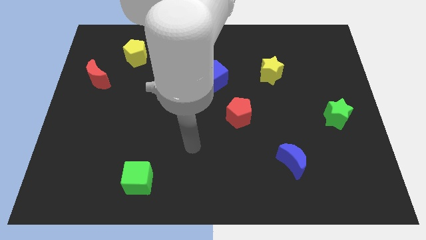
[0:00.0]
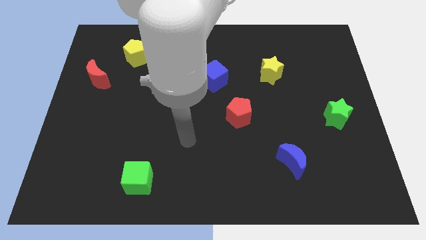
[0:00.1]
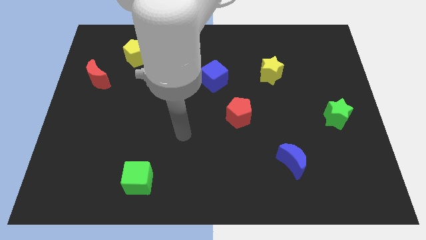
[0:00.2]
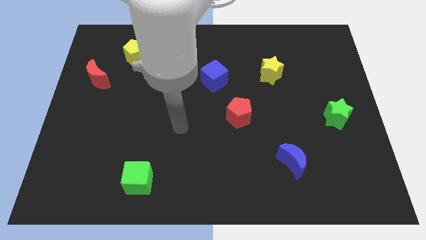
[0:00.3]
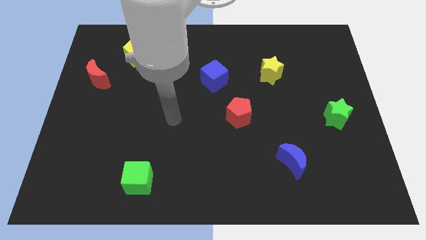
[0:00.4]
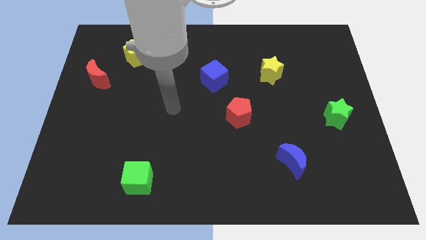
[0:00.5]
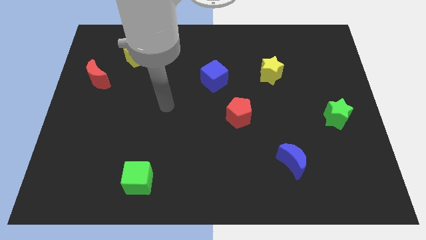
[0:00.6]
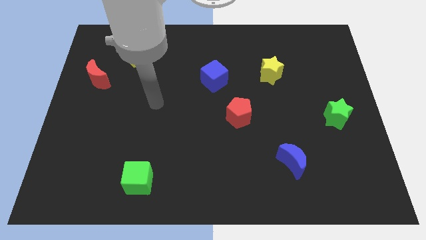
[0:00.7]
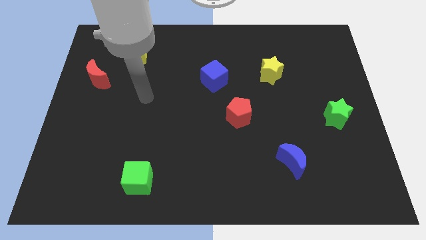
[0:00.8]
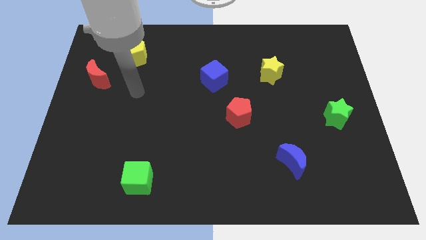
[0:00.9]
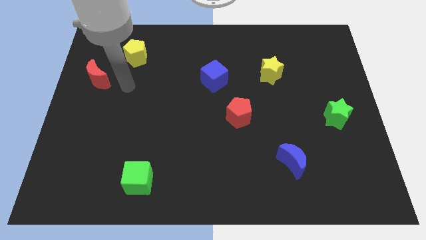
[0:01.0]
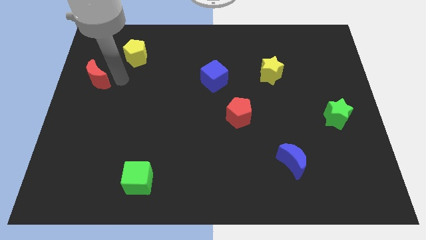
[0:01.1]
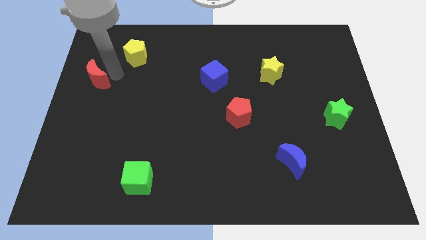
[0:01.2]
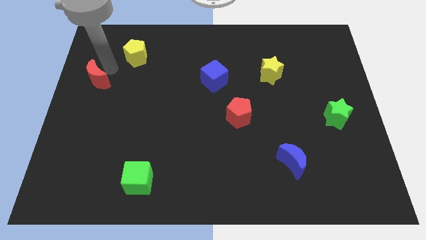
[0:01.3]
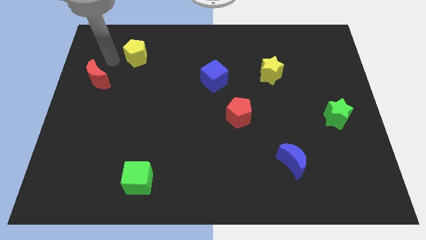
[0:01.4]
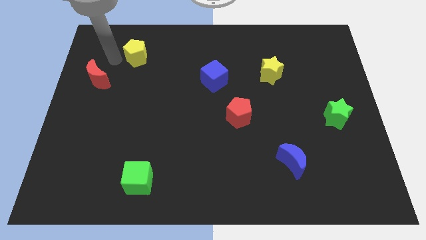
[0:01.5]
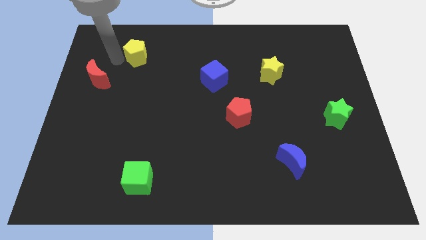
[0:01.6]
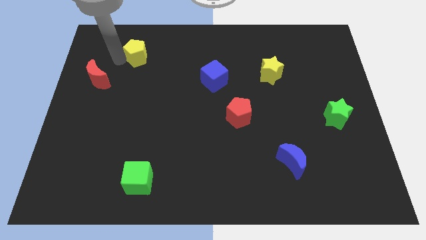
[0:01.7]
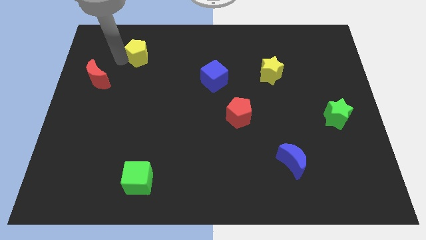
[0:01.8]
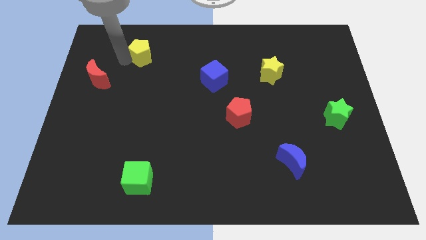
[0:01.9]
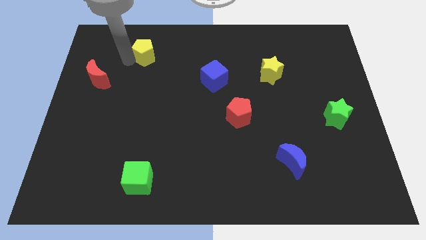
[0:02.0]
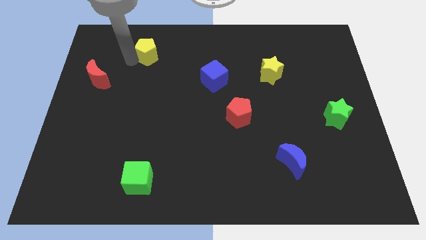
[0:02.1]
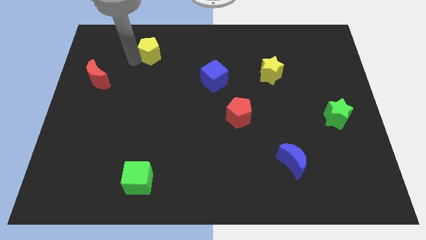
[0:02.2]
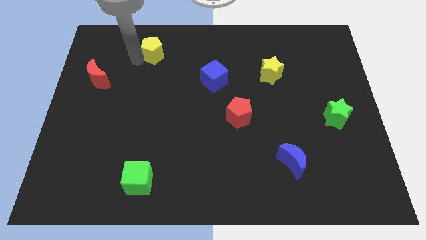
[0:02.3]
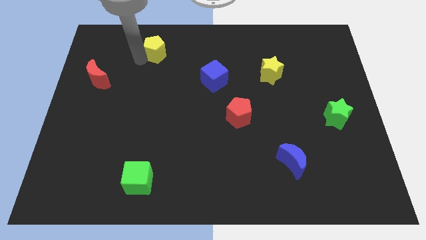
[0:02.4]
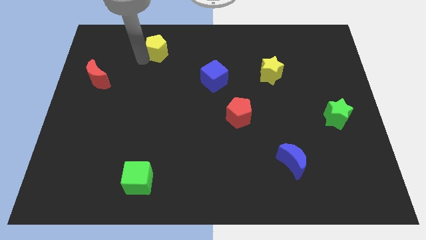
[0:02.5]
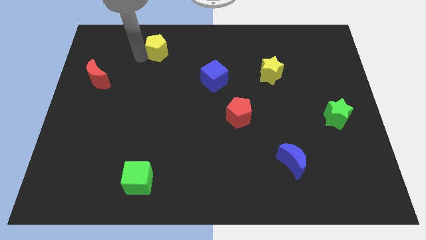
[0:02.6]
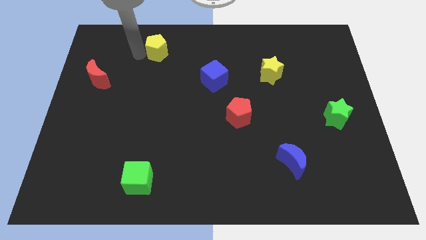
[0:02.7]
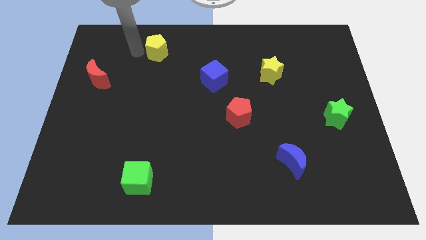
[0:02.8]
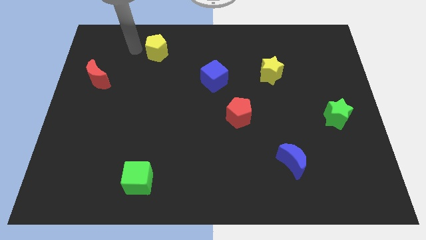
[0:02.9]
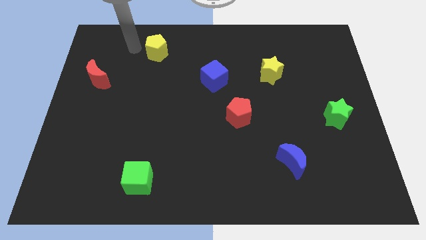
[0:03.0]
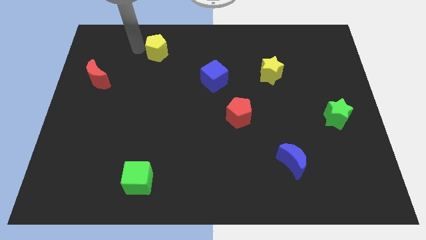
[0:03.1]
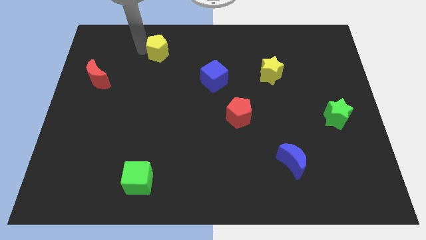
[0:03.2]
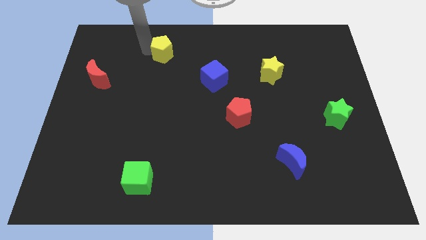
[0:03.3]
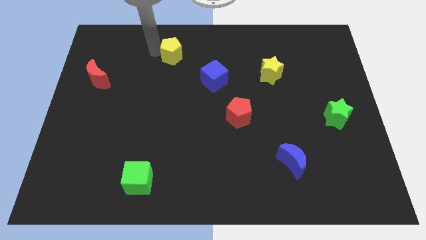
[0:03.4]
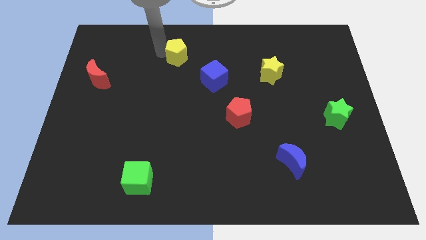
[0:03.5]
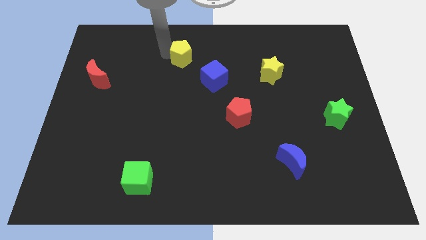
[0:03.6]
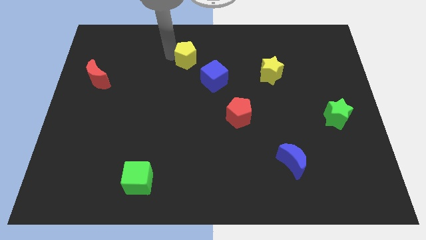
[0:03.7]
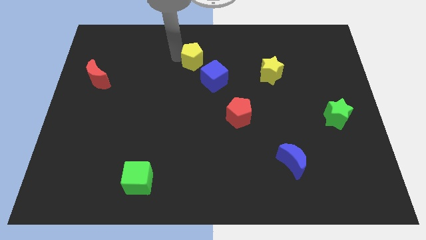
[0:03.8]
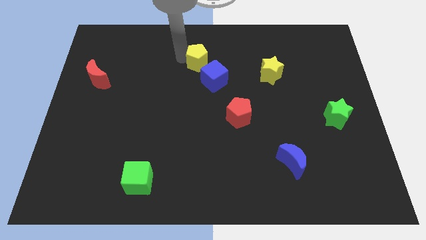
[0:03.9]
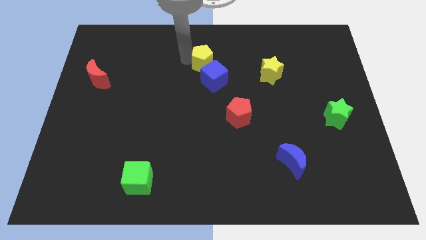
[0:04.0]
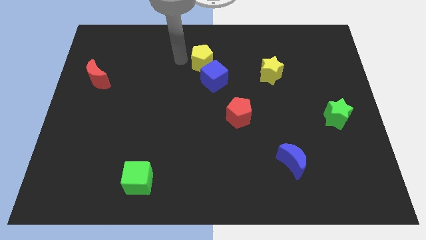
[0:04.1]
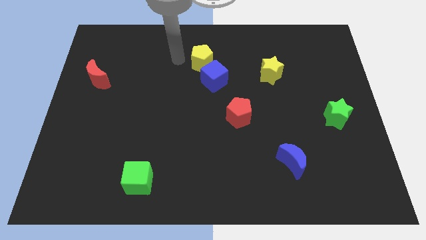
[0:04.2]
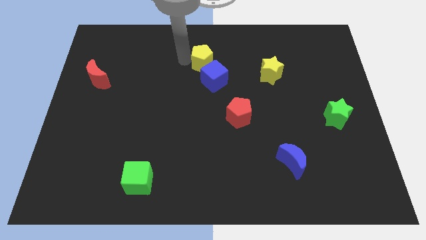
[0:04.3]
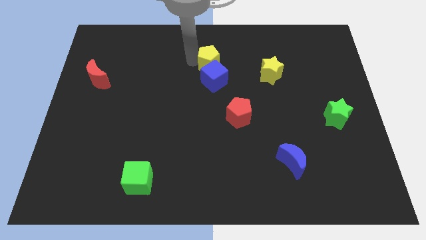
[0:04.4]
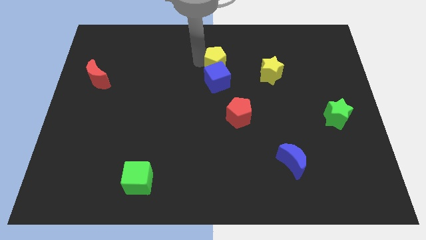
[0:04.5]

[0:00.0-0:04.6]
slide the yellow pentagon to the top right of the blue cube

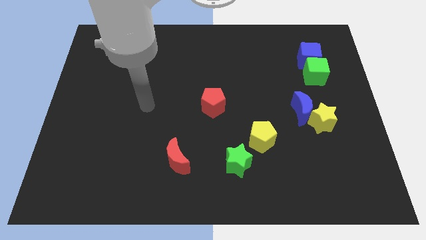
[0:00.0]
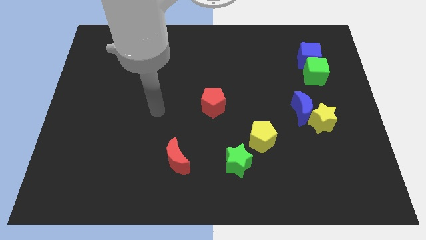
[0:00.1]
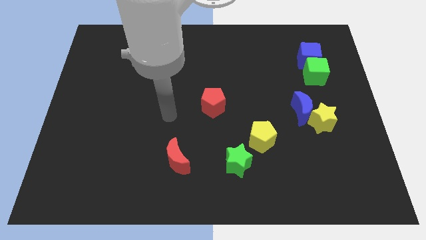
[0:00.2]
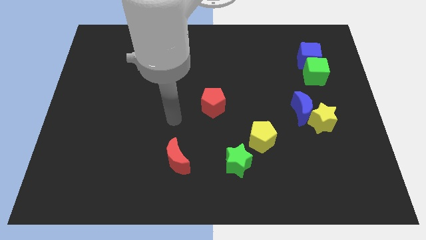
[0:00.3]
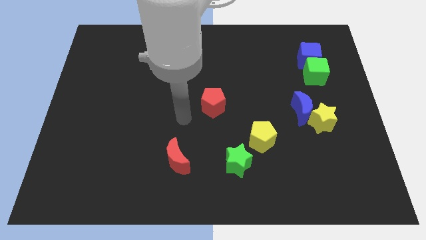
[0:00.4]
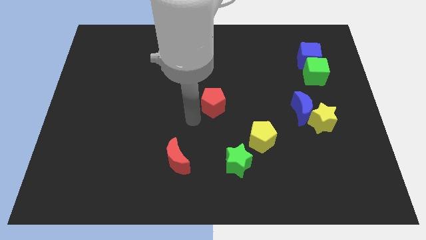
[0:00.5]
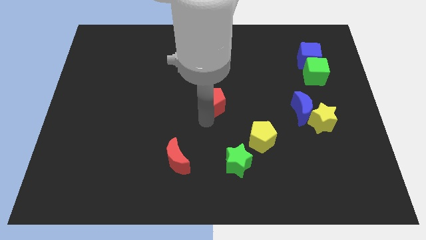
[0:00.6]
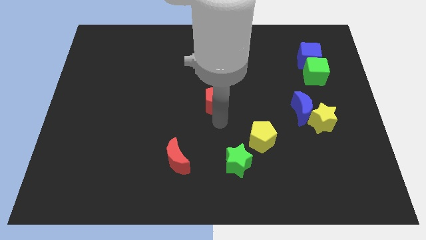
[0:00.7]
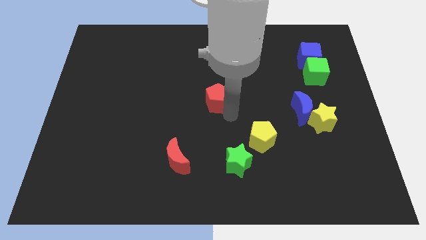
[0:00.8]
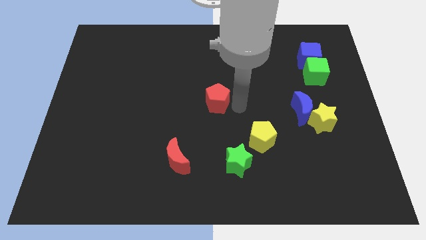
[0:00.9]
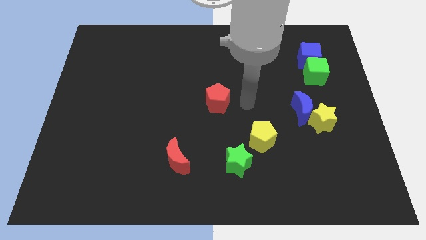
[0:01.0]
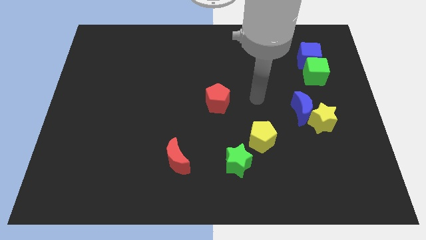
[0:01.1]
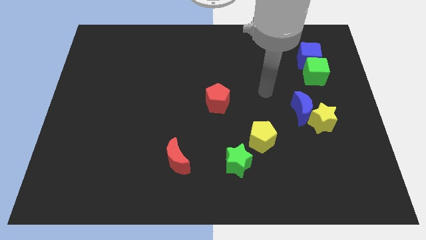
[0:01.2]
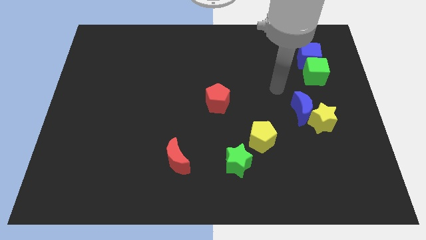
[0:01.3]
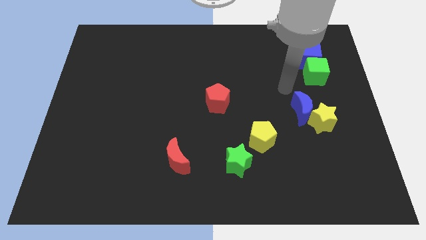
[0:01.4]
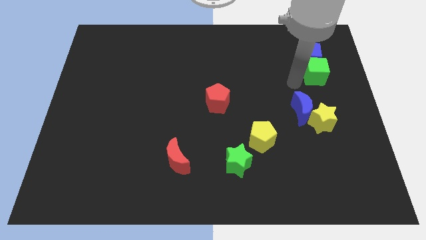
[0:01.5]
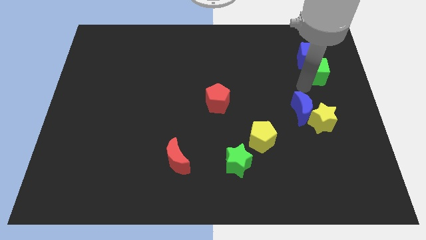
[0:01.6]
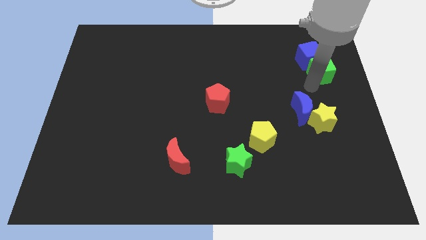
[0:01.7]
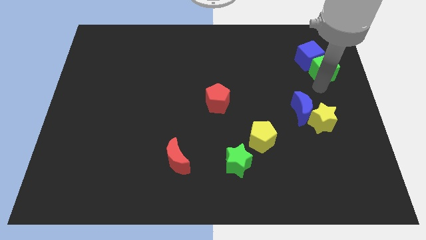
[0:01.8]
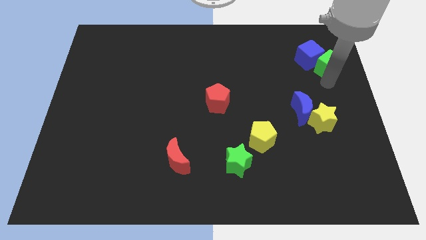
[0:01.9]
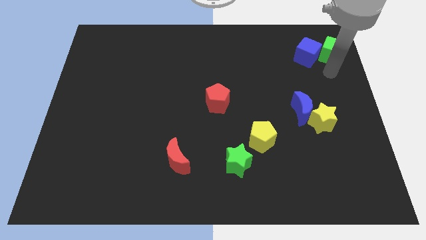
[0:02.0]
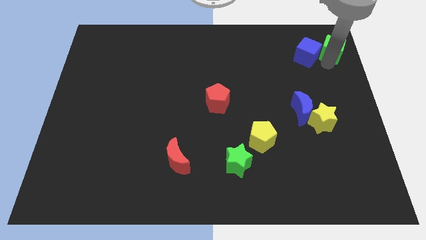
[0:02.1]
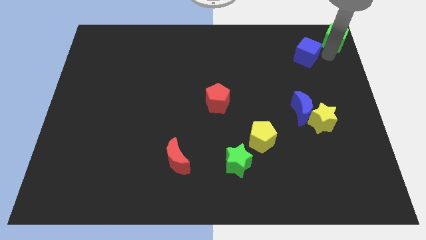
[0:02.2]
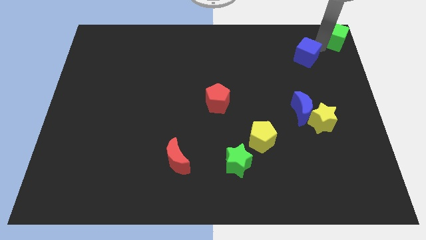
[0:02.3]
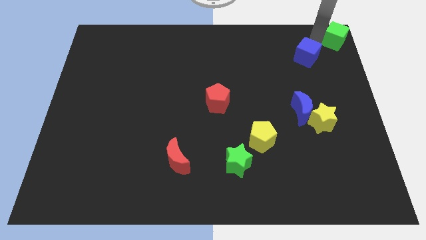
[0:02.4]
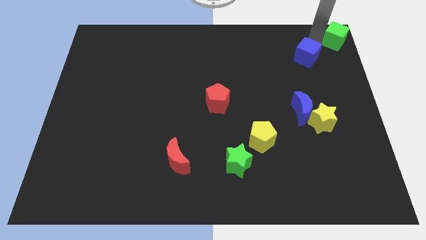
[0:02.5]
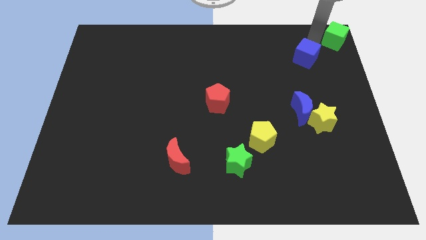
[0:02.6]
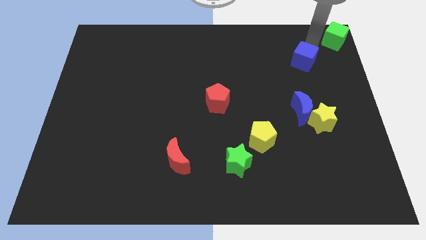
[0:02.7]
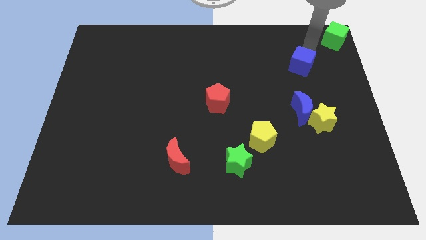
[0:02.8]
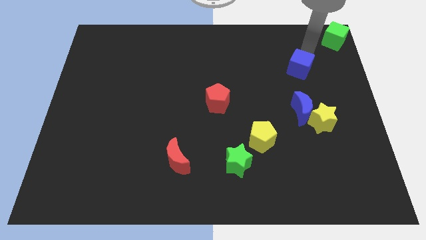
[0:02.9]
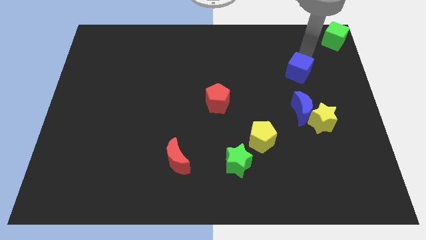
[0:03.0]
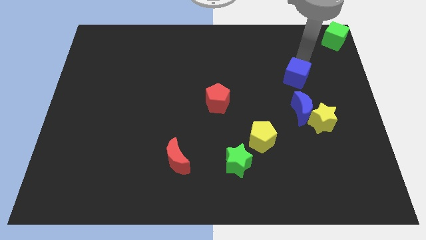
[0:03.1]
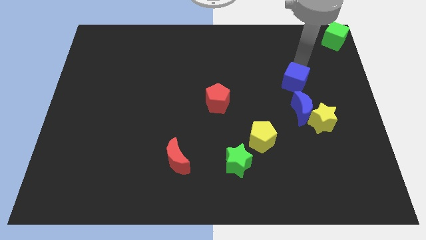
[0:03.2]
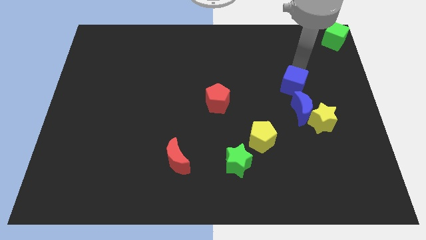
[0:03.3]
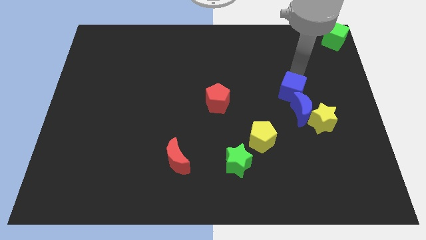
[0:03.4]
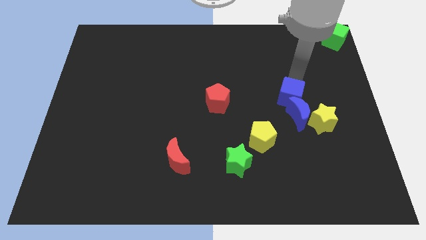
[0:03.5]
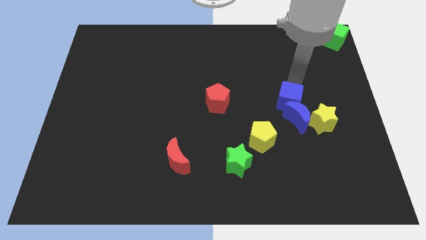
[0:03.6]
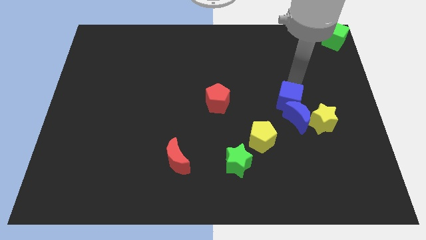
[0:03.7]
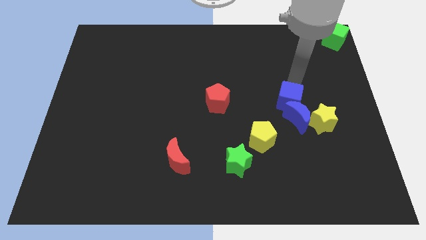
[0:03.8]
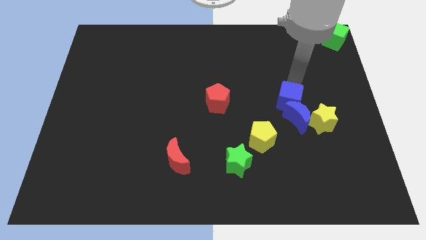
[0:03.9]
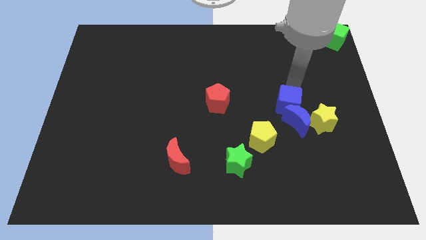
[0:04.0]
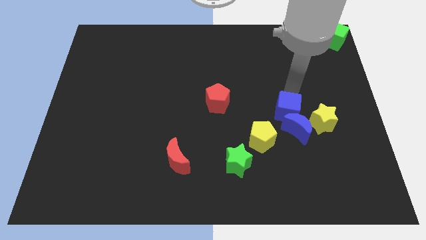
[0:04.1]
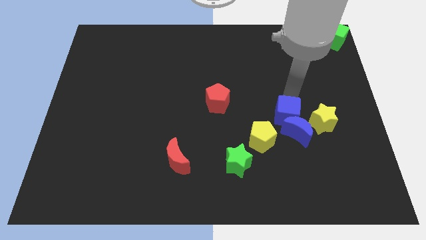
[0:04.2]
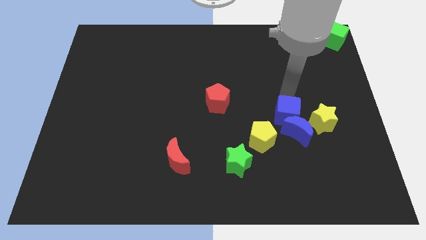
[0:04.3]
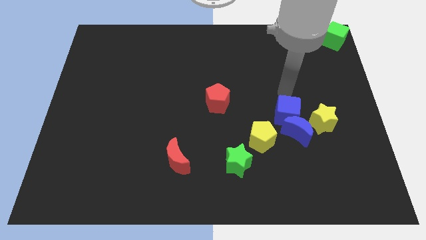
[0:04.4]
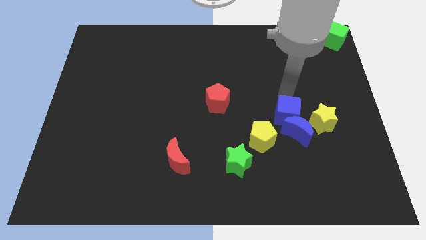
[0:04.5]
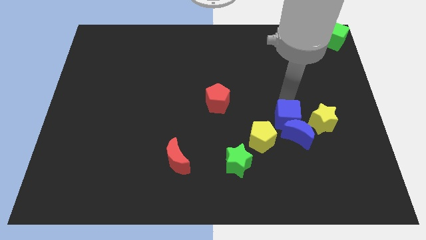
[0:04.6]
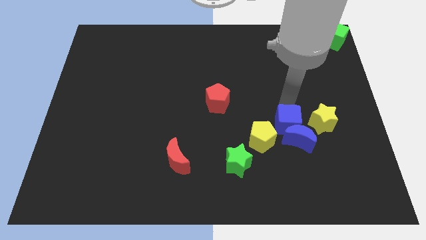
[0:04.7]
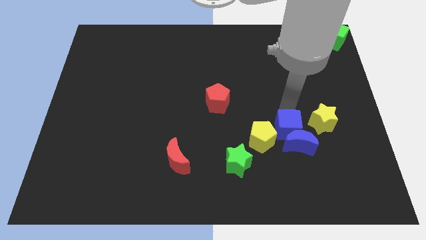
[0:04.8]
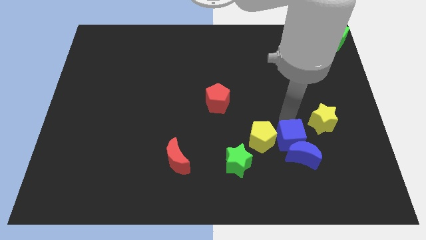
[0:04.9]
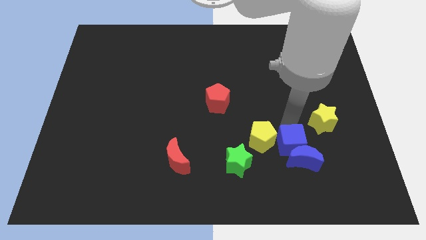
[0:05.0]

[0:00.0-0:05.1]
move the blue cube right of the green star
